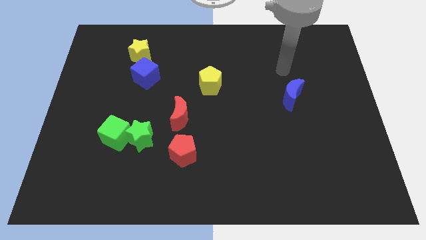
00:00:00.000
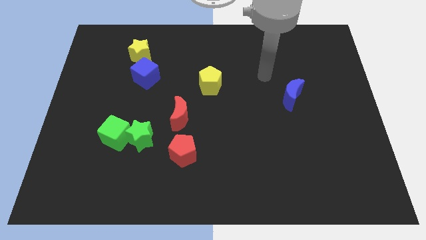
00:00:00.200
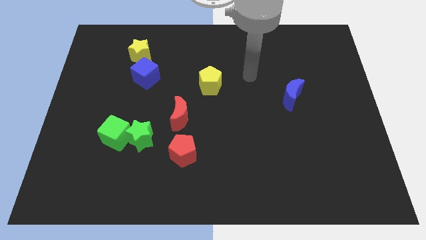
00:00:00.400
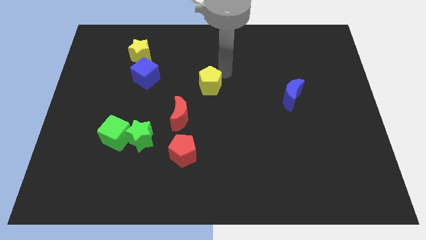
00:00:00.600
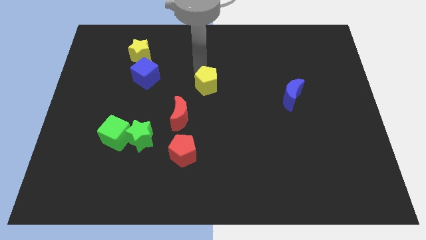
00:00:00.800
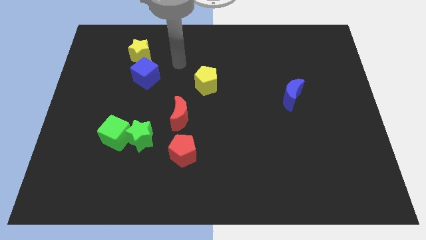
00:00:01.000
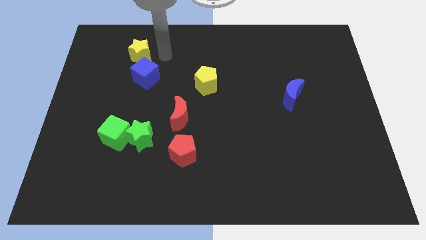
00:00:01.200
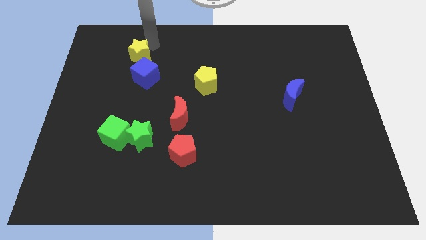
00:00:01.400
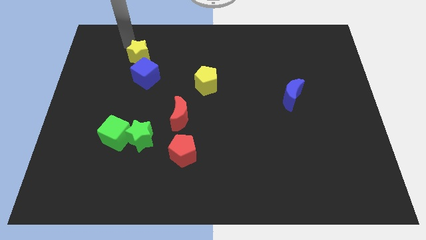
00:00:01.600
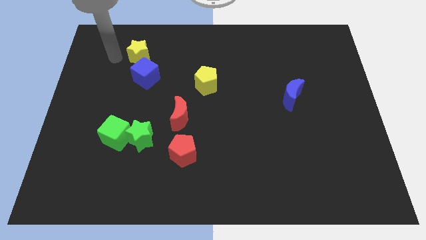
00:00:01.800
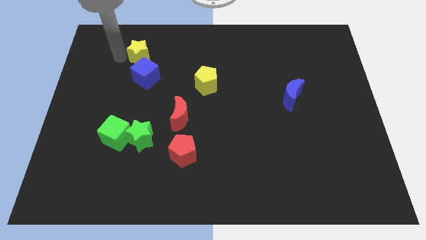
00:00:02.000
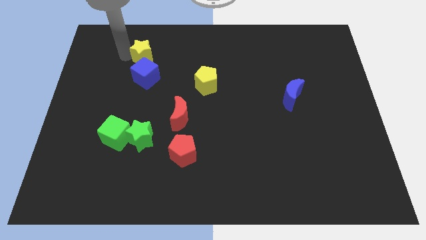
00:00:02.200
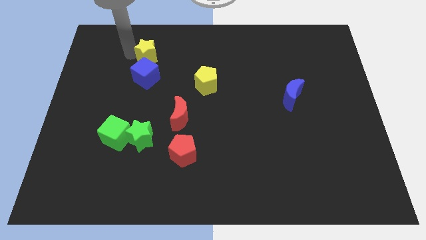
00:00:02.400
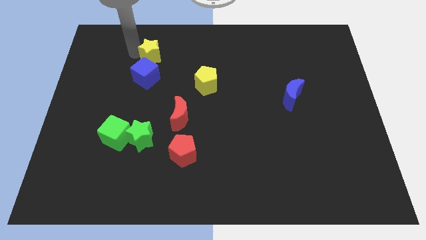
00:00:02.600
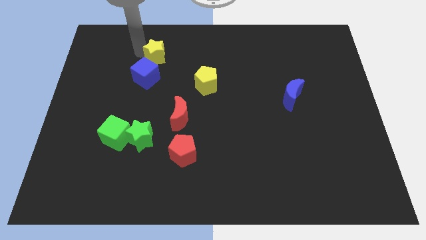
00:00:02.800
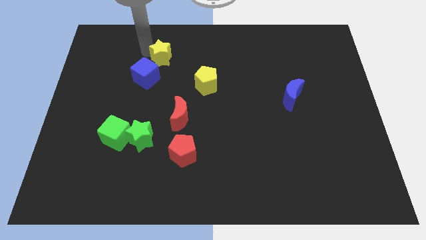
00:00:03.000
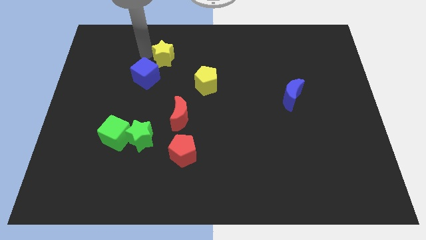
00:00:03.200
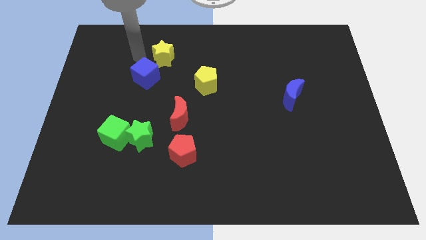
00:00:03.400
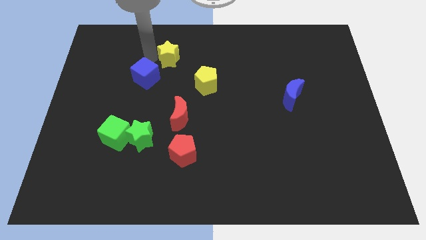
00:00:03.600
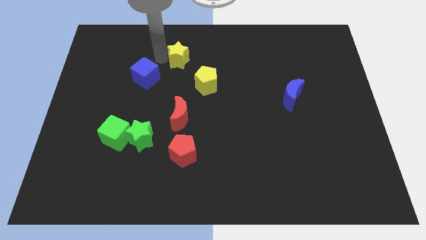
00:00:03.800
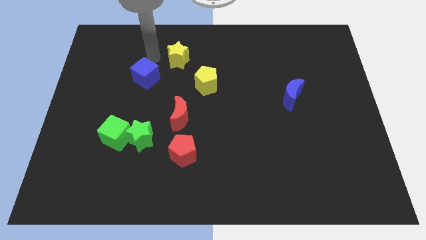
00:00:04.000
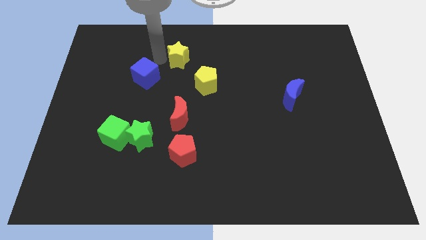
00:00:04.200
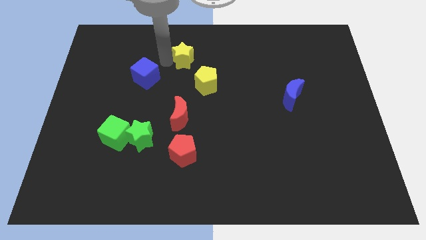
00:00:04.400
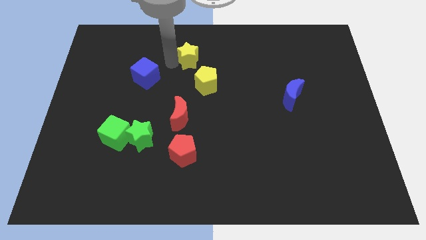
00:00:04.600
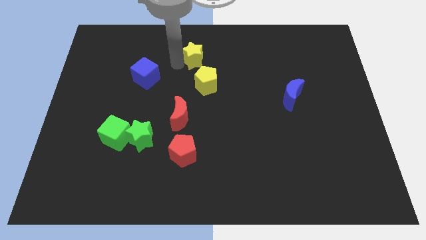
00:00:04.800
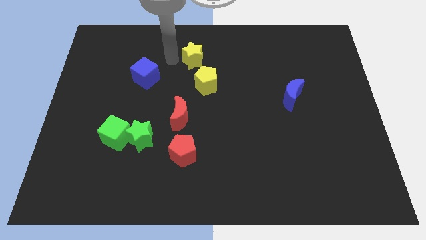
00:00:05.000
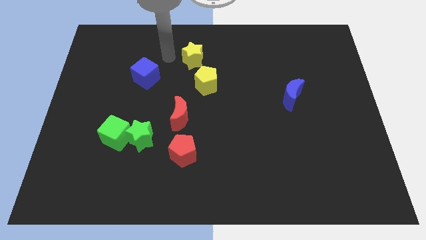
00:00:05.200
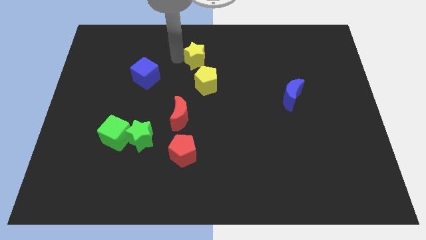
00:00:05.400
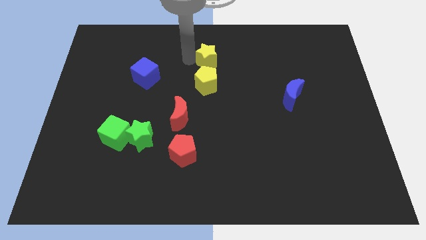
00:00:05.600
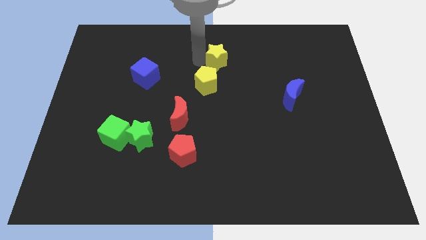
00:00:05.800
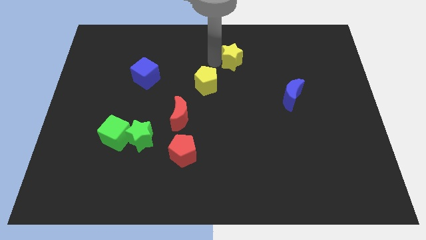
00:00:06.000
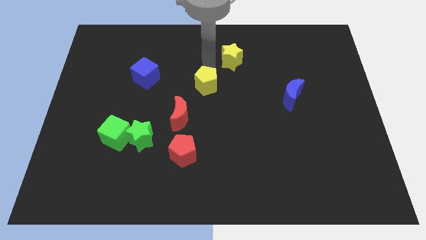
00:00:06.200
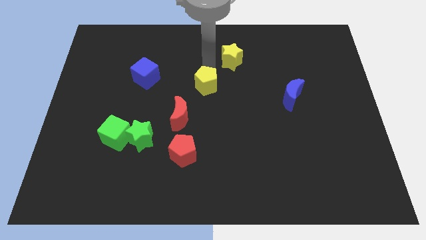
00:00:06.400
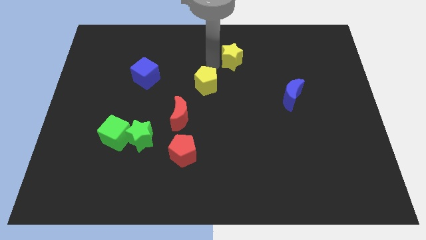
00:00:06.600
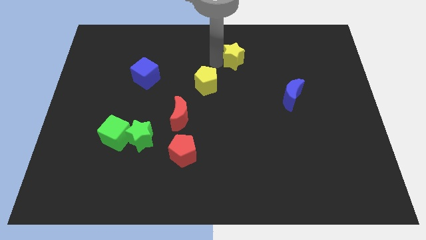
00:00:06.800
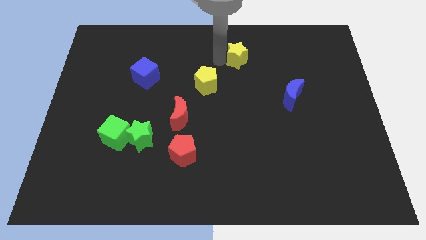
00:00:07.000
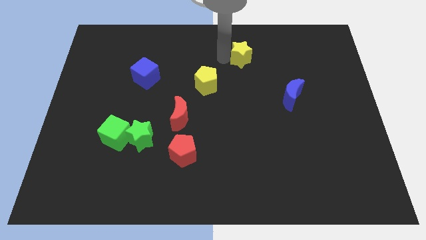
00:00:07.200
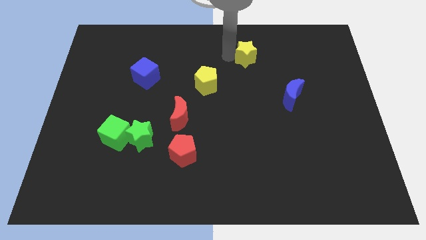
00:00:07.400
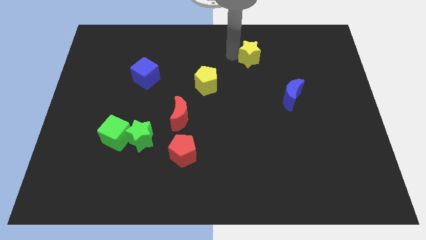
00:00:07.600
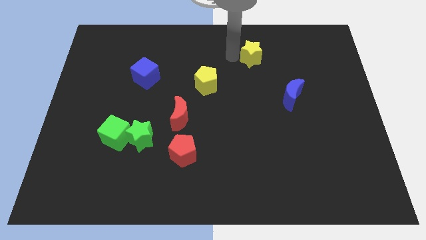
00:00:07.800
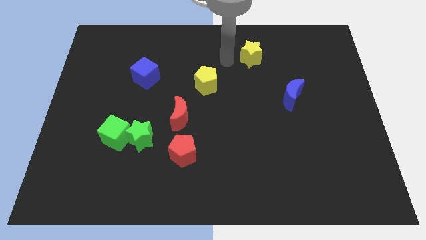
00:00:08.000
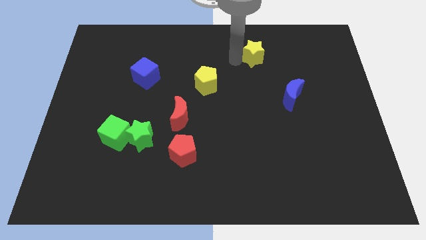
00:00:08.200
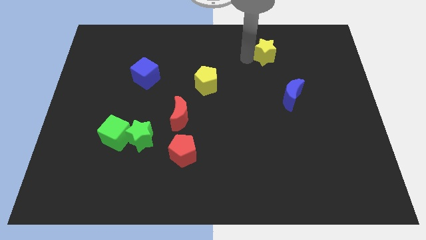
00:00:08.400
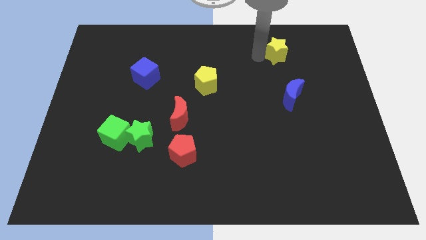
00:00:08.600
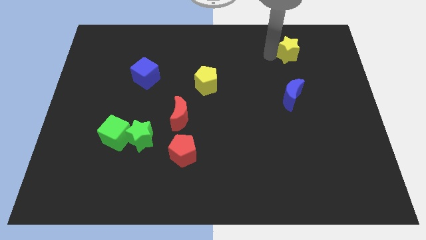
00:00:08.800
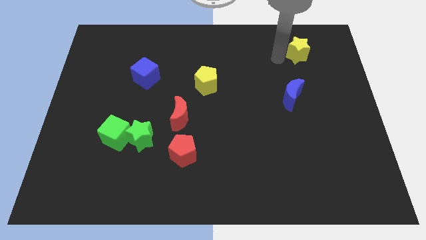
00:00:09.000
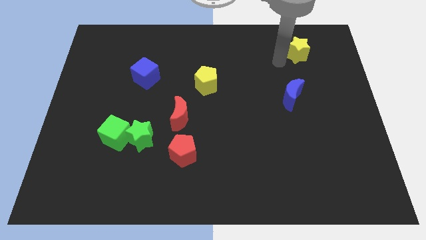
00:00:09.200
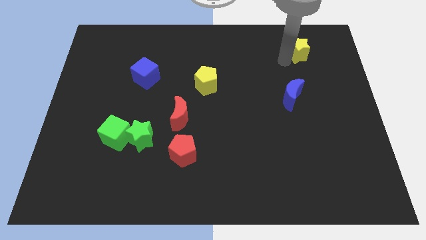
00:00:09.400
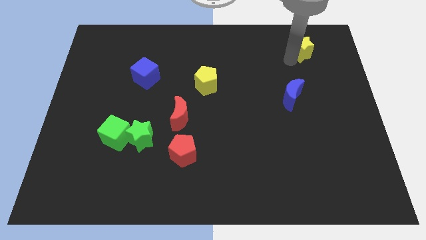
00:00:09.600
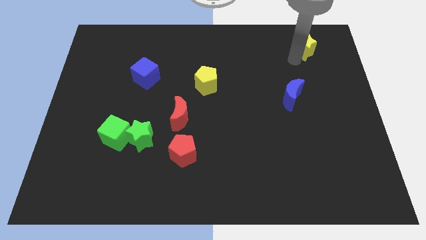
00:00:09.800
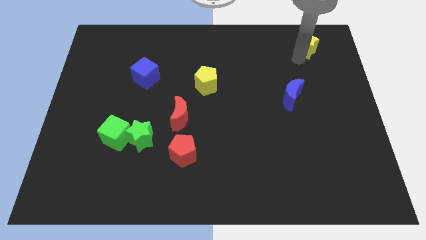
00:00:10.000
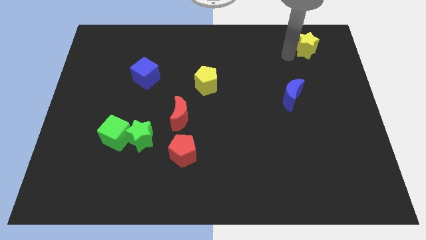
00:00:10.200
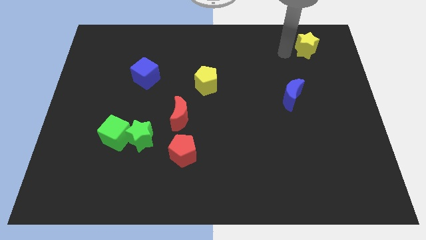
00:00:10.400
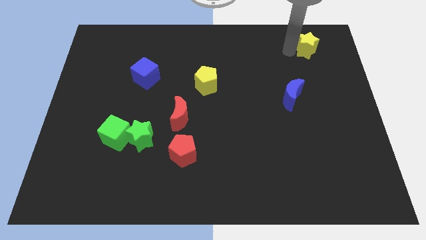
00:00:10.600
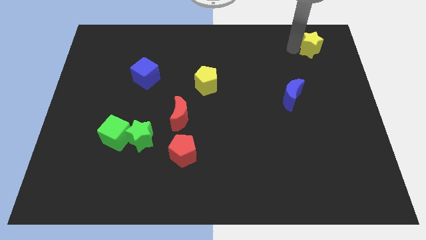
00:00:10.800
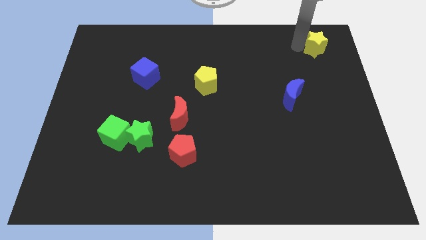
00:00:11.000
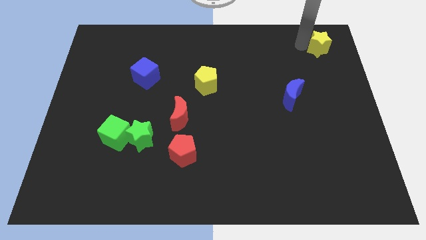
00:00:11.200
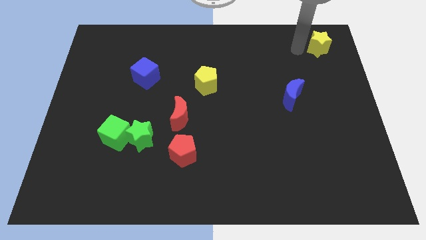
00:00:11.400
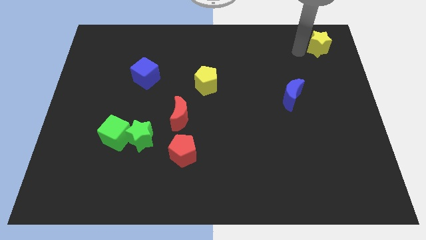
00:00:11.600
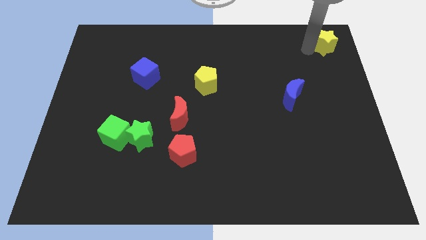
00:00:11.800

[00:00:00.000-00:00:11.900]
put the yellow star to the top right of the board
